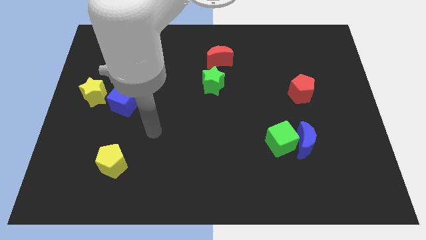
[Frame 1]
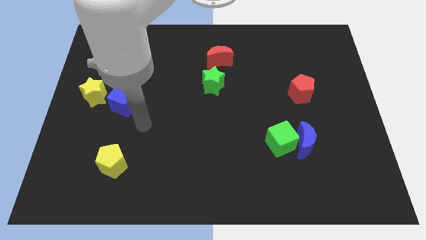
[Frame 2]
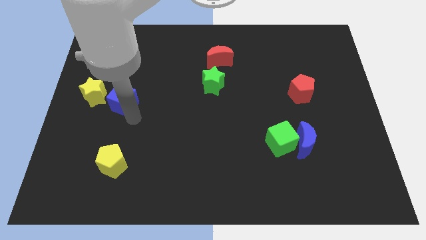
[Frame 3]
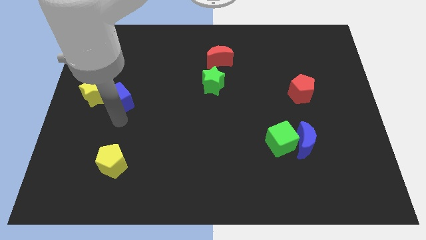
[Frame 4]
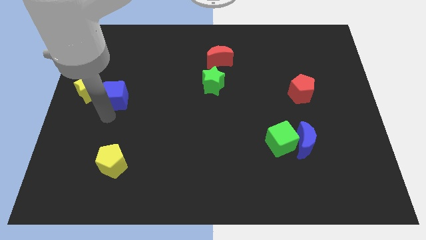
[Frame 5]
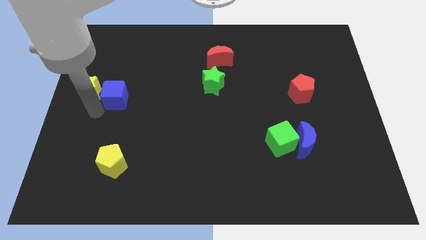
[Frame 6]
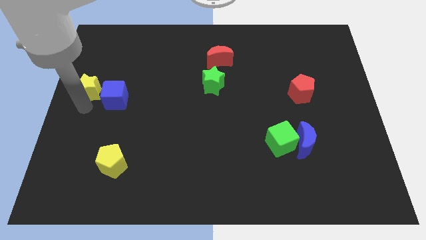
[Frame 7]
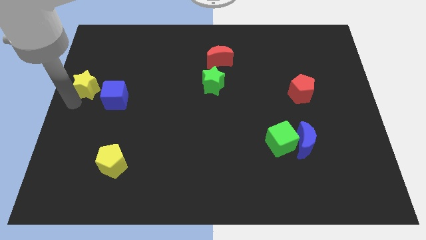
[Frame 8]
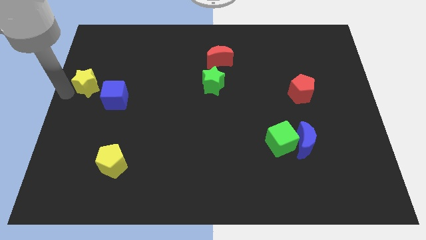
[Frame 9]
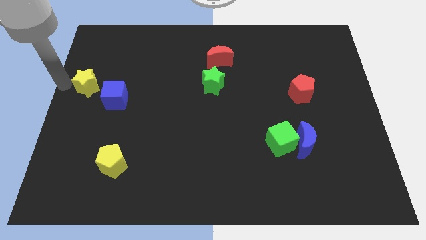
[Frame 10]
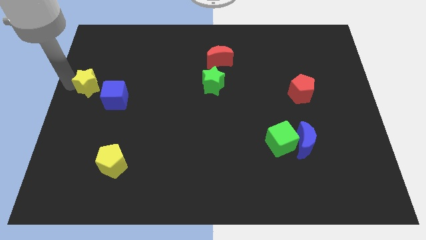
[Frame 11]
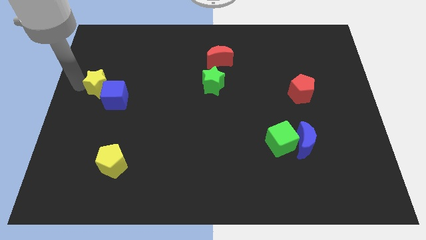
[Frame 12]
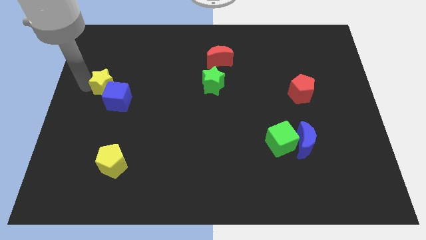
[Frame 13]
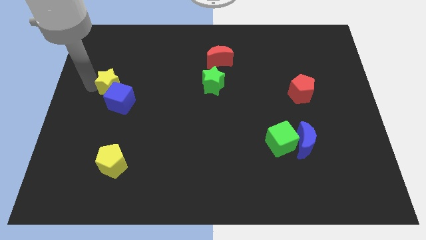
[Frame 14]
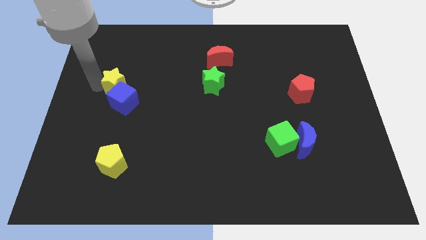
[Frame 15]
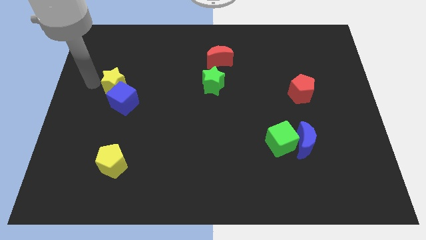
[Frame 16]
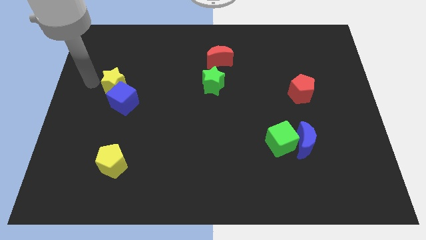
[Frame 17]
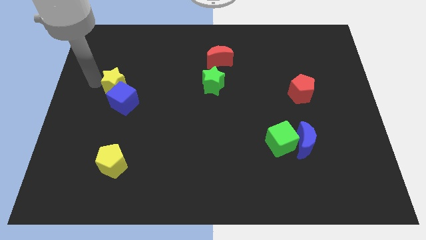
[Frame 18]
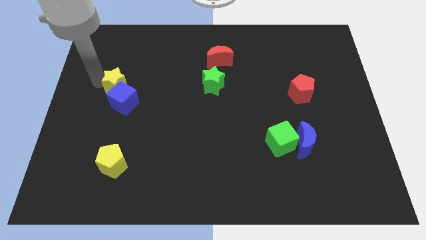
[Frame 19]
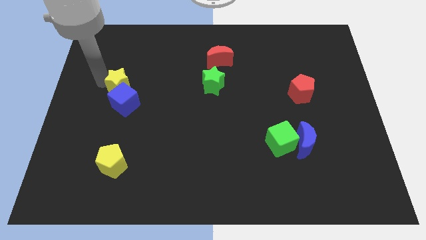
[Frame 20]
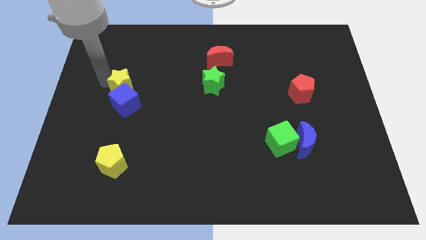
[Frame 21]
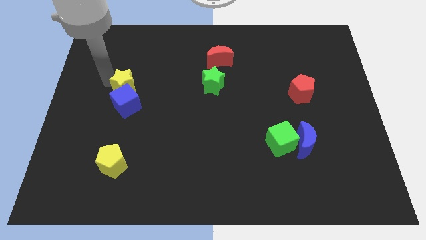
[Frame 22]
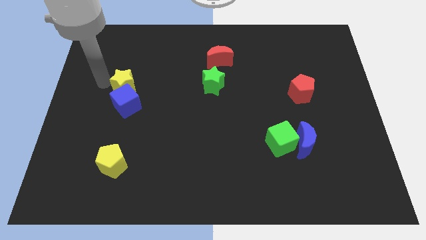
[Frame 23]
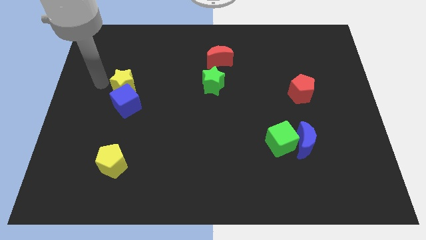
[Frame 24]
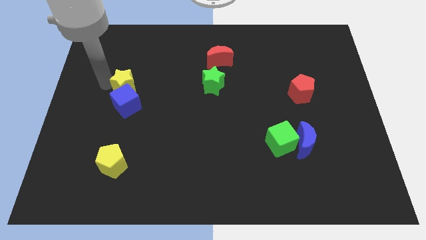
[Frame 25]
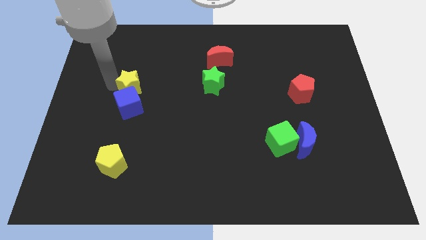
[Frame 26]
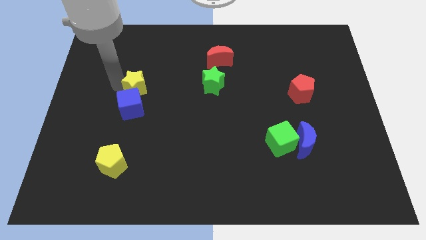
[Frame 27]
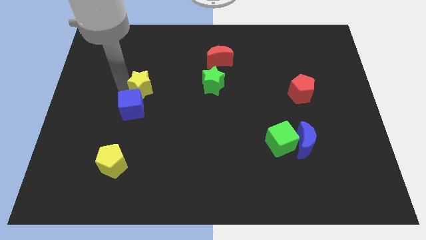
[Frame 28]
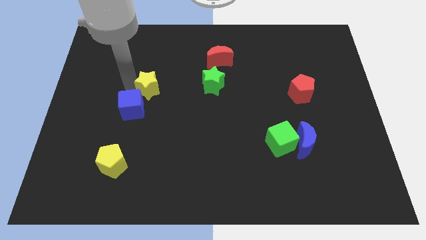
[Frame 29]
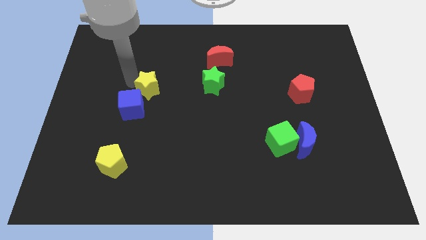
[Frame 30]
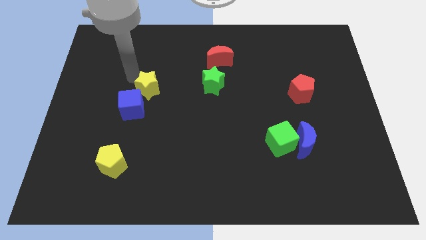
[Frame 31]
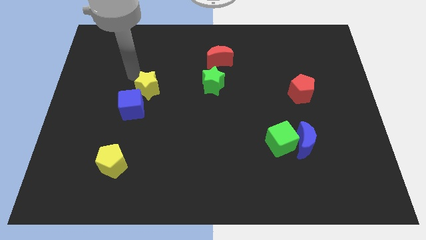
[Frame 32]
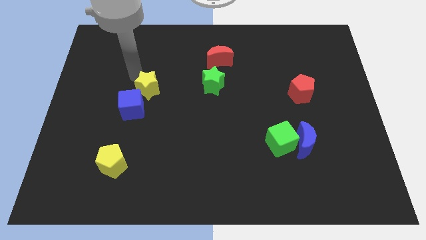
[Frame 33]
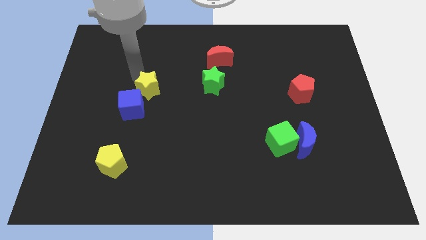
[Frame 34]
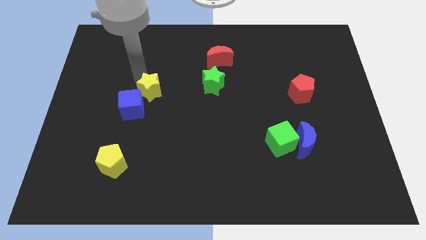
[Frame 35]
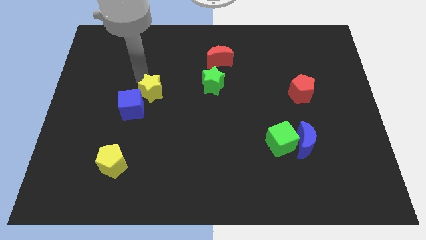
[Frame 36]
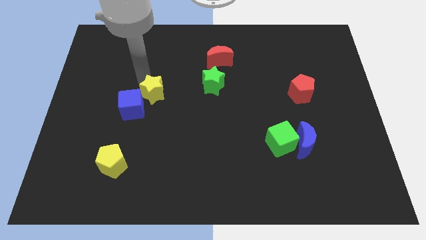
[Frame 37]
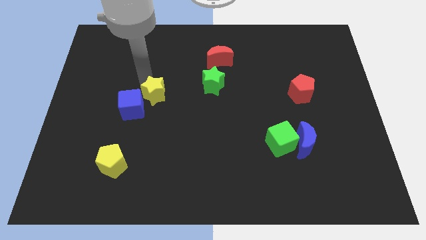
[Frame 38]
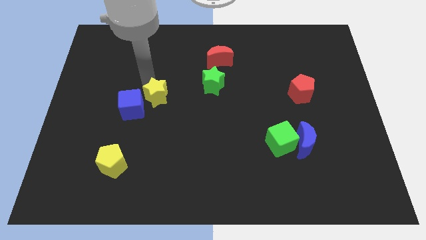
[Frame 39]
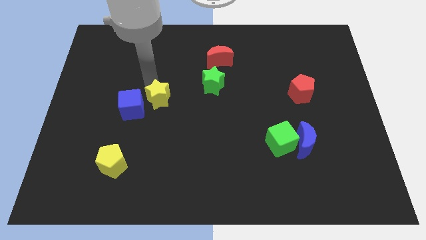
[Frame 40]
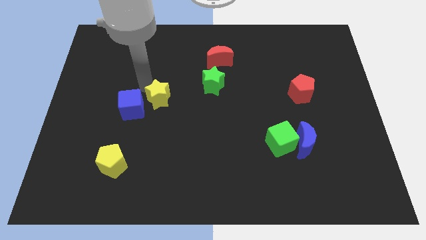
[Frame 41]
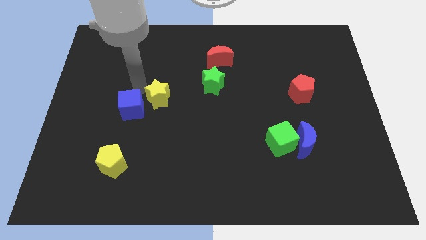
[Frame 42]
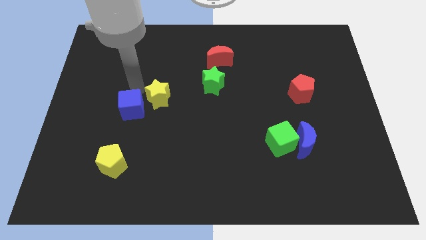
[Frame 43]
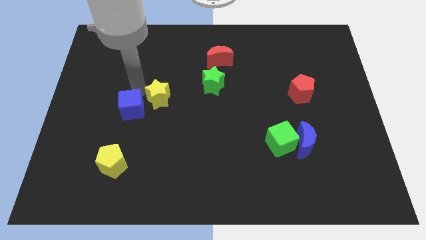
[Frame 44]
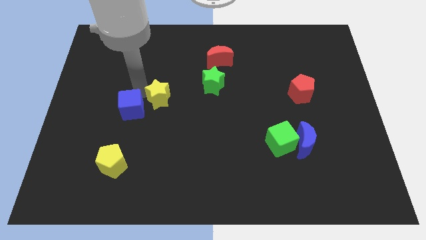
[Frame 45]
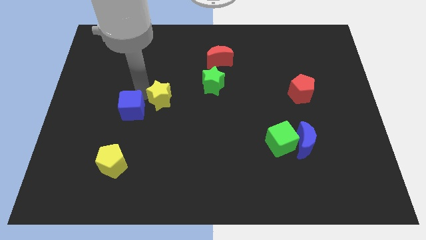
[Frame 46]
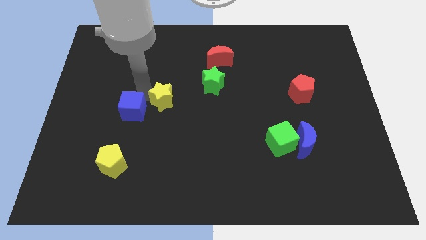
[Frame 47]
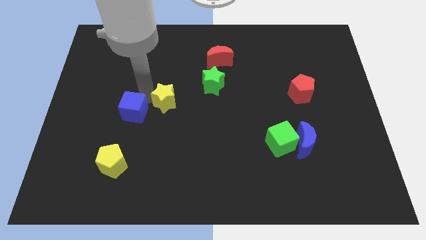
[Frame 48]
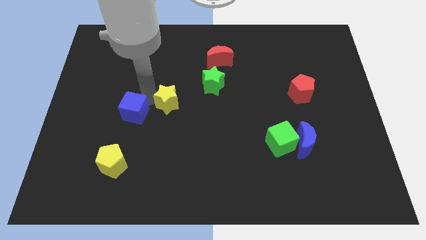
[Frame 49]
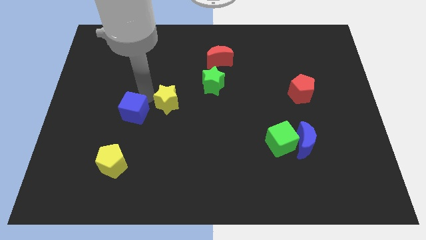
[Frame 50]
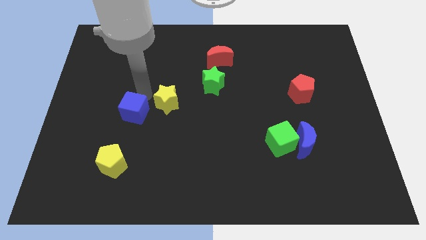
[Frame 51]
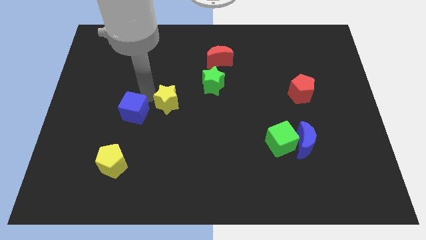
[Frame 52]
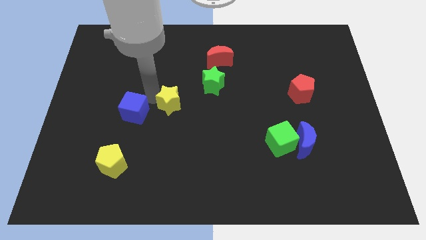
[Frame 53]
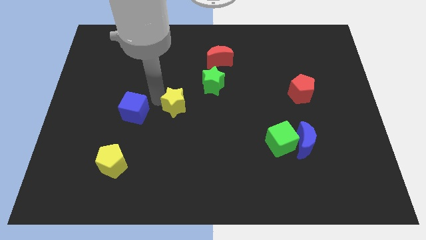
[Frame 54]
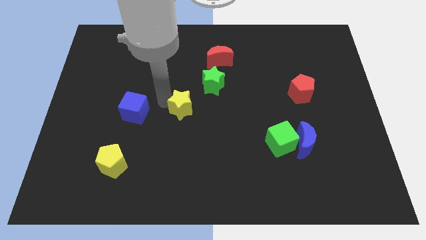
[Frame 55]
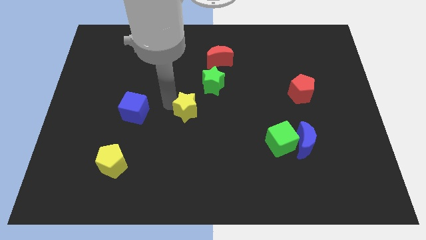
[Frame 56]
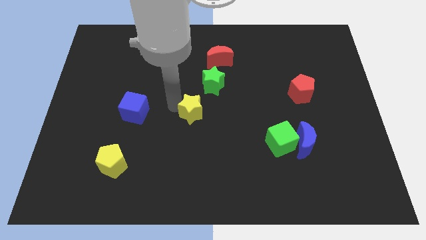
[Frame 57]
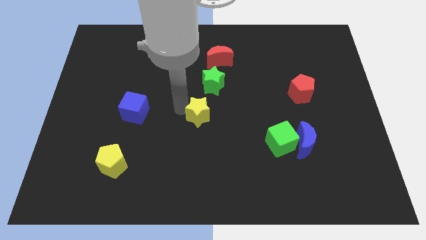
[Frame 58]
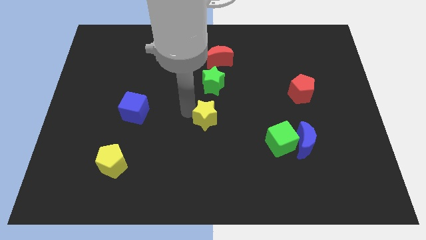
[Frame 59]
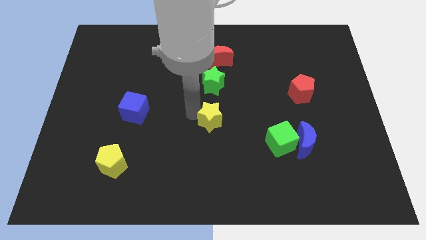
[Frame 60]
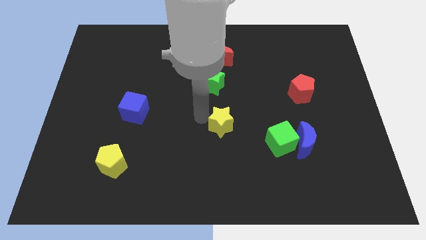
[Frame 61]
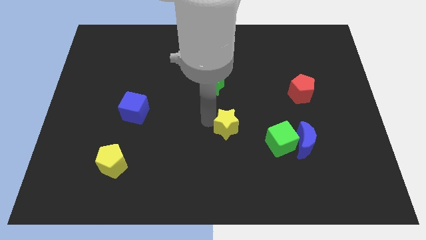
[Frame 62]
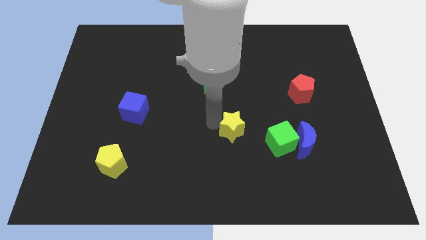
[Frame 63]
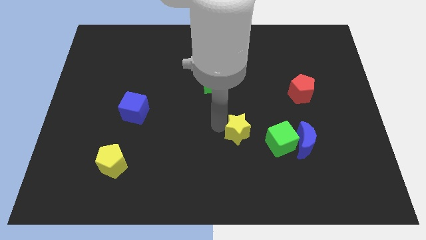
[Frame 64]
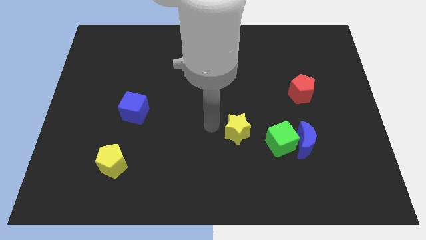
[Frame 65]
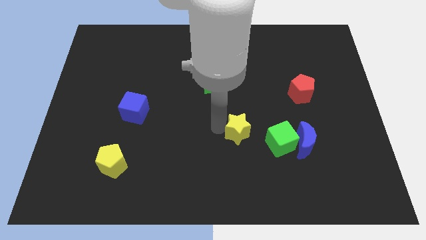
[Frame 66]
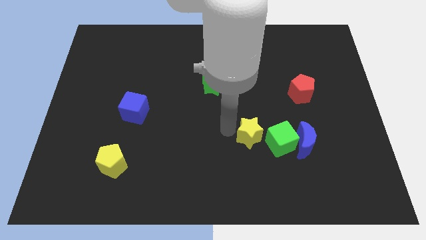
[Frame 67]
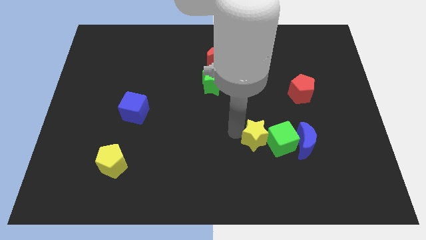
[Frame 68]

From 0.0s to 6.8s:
move the yellow star to the green cube

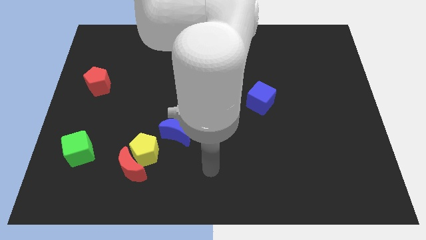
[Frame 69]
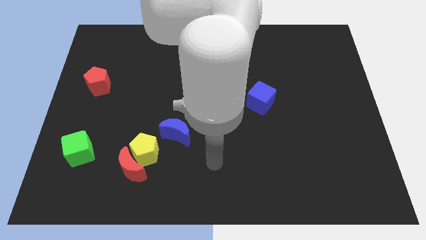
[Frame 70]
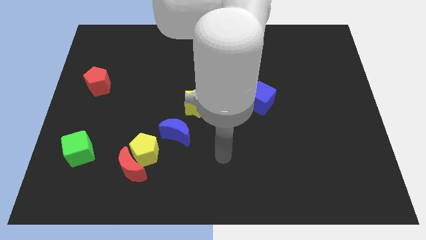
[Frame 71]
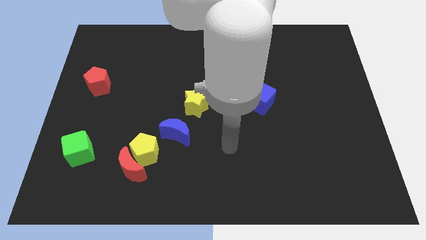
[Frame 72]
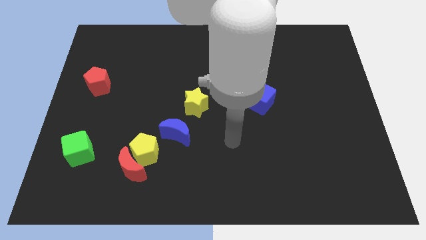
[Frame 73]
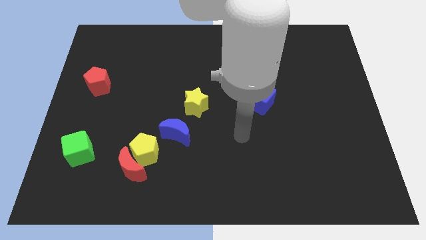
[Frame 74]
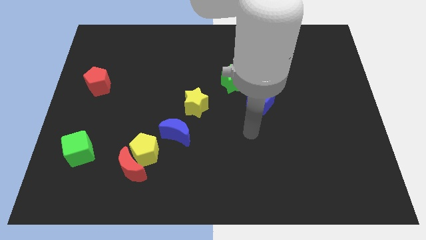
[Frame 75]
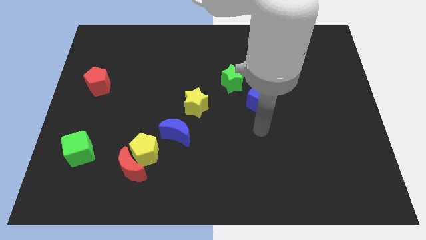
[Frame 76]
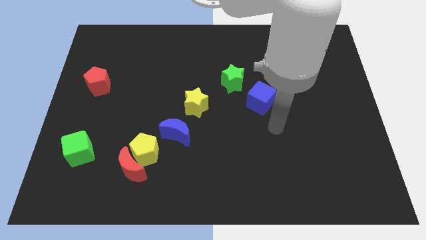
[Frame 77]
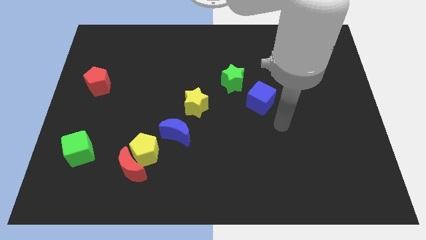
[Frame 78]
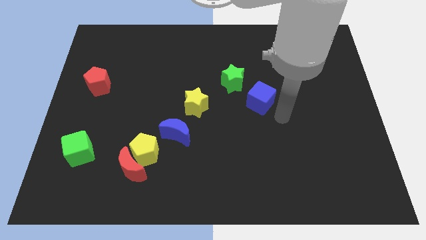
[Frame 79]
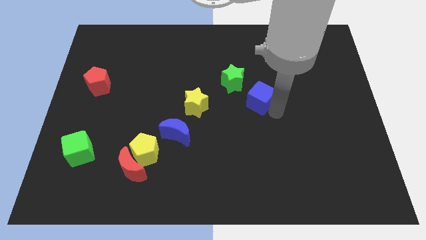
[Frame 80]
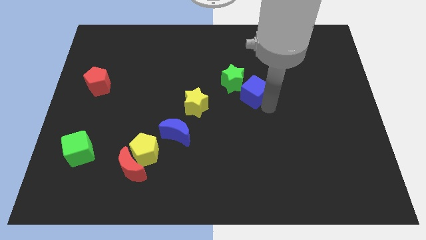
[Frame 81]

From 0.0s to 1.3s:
slide the blue cube close to the green star
